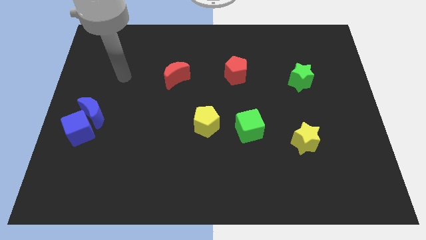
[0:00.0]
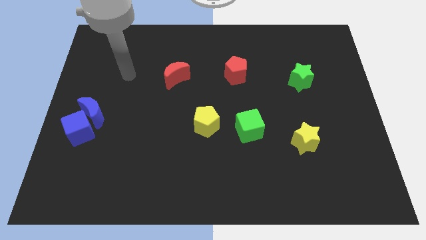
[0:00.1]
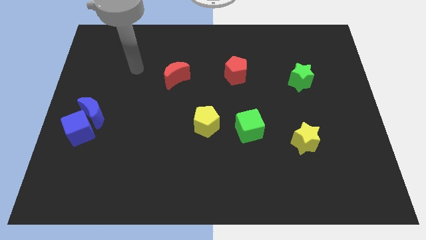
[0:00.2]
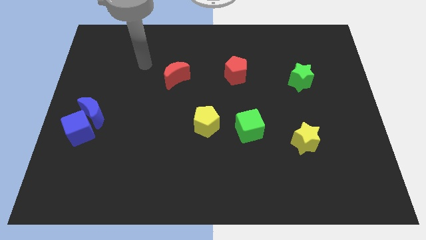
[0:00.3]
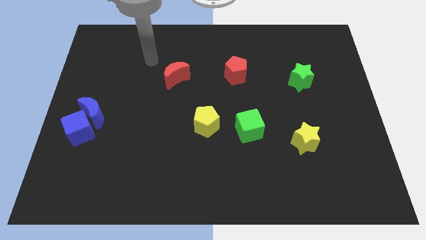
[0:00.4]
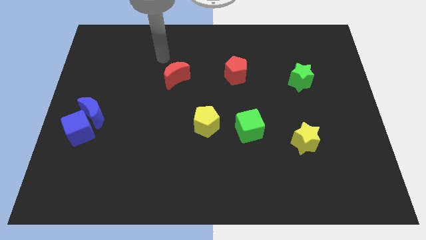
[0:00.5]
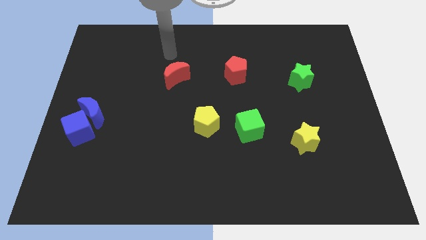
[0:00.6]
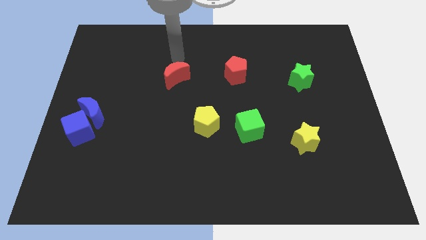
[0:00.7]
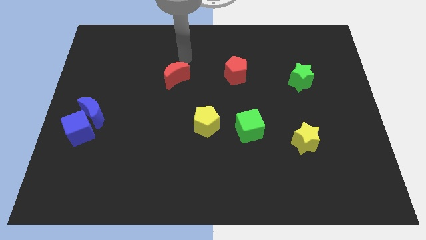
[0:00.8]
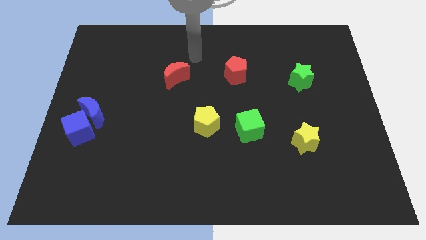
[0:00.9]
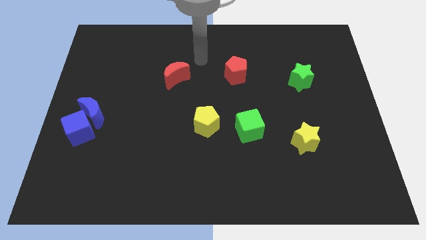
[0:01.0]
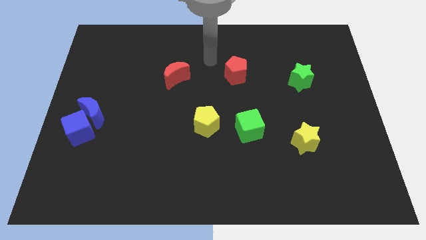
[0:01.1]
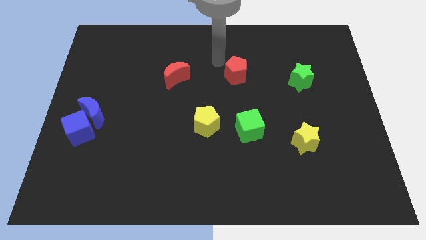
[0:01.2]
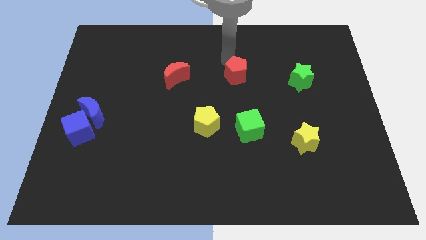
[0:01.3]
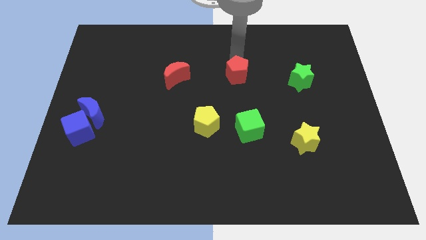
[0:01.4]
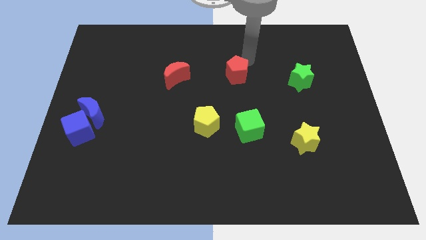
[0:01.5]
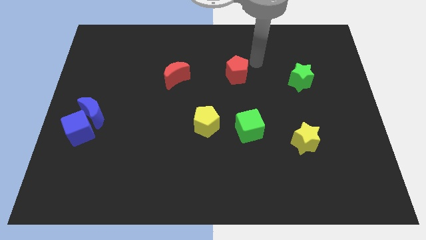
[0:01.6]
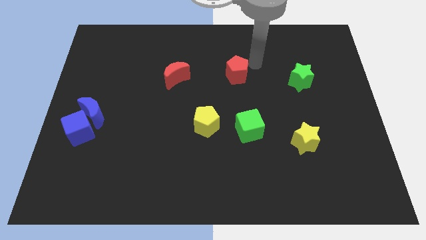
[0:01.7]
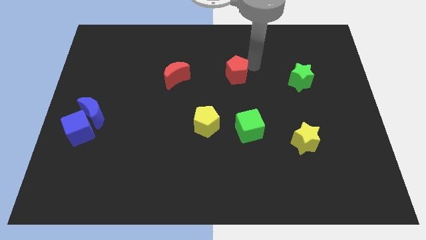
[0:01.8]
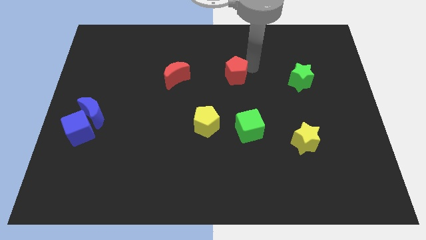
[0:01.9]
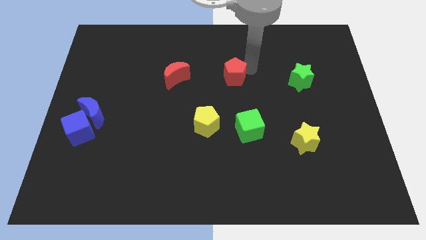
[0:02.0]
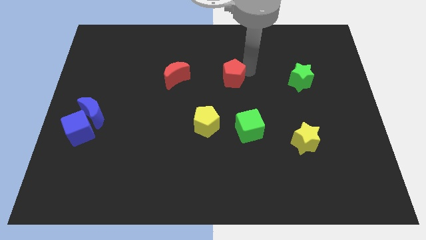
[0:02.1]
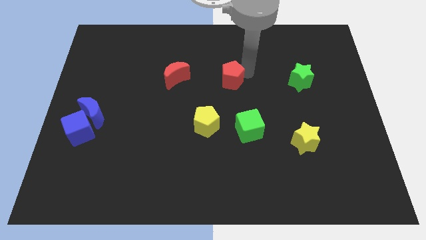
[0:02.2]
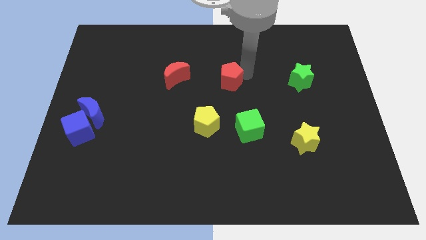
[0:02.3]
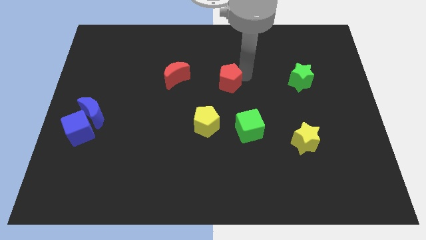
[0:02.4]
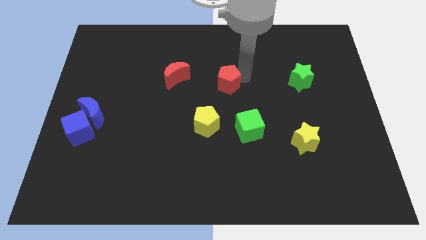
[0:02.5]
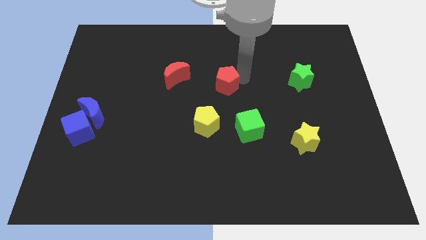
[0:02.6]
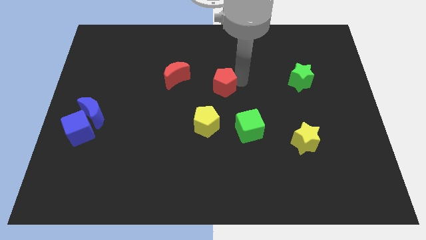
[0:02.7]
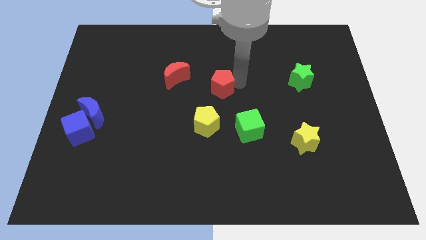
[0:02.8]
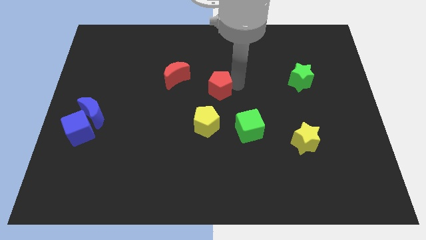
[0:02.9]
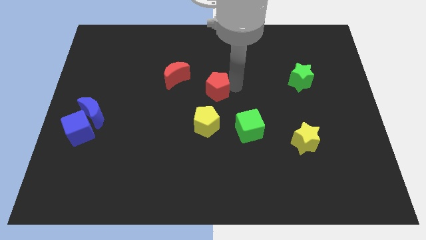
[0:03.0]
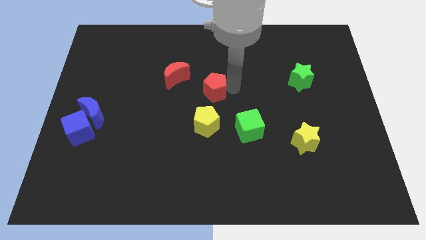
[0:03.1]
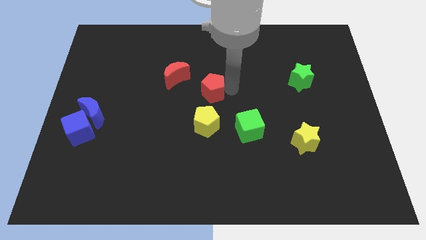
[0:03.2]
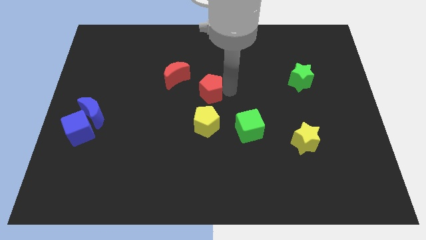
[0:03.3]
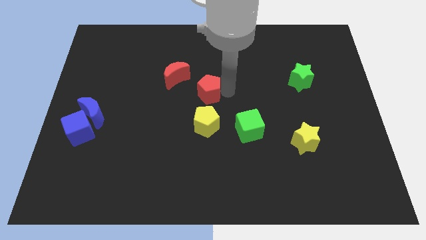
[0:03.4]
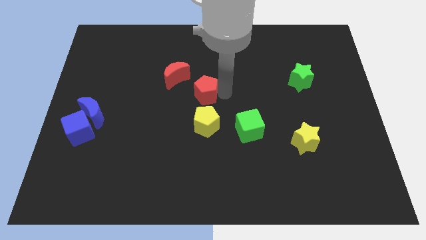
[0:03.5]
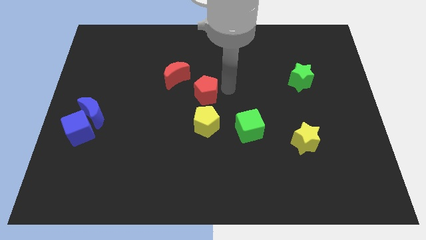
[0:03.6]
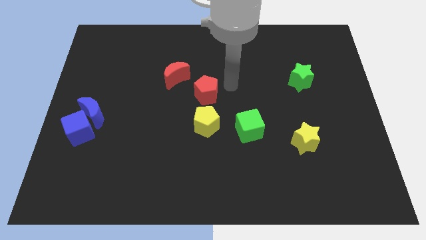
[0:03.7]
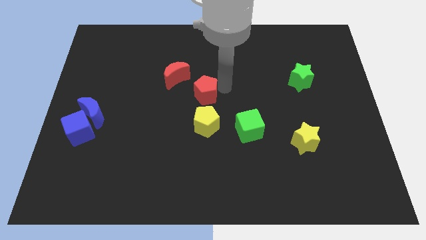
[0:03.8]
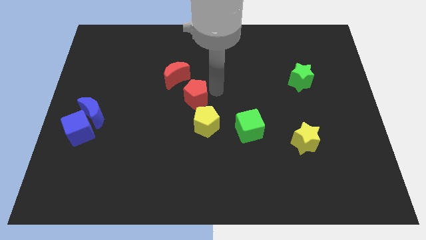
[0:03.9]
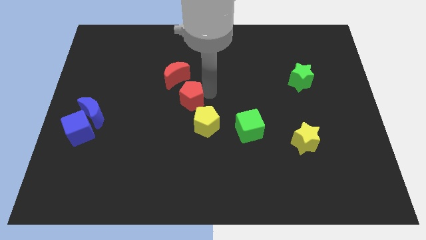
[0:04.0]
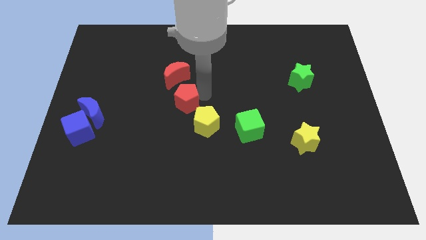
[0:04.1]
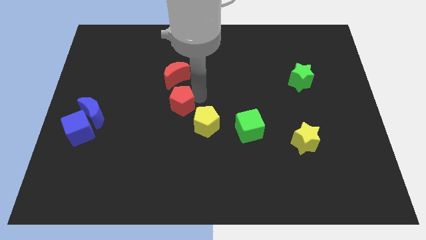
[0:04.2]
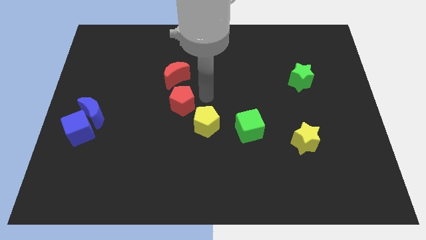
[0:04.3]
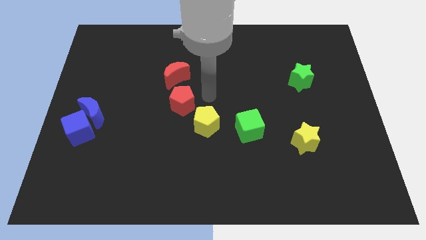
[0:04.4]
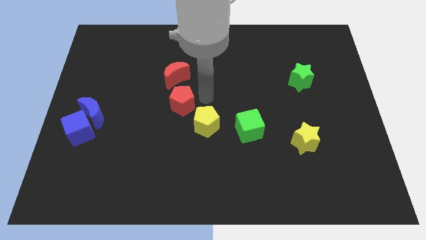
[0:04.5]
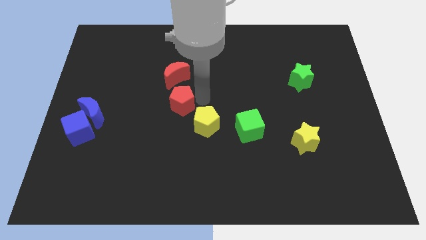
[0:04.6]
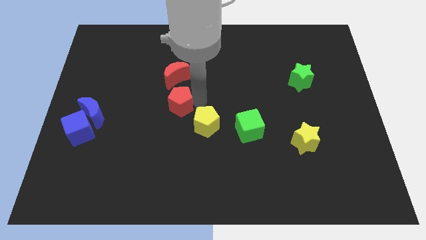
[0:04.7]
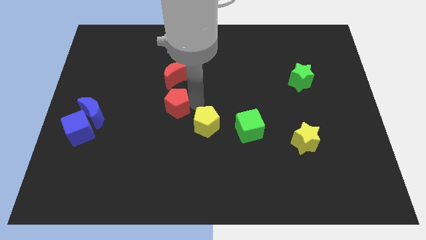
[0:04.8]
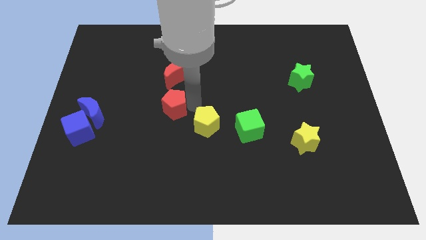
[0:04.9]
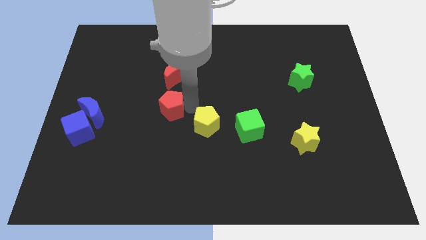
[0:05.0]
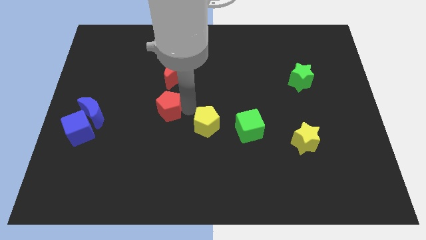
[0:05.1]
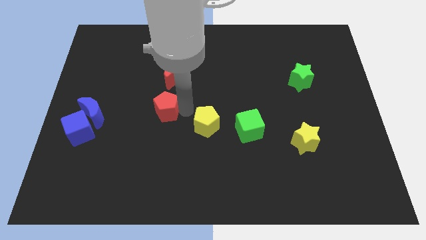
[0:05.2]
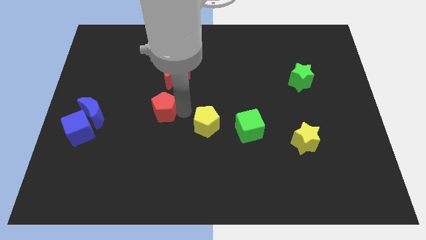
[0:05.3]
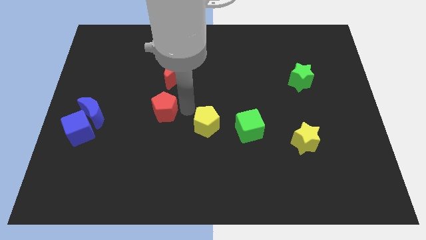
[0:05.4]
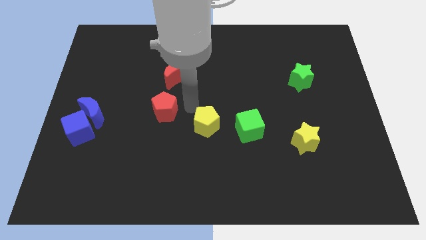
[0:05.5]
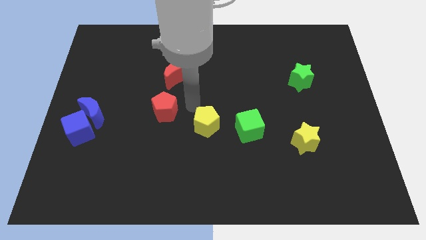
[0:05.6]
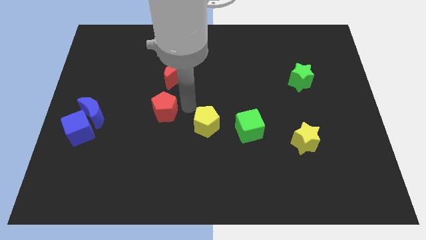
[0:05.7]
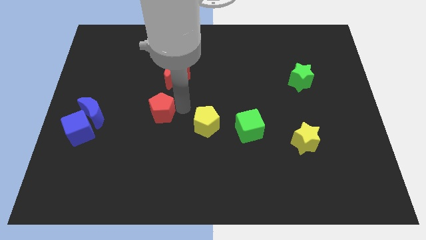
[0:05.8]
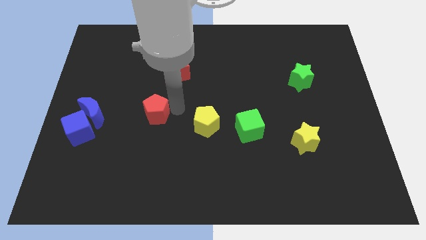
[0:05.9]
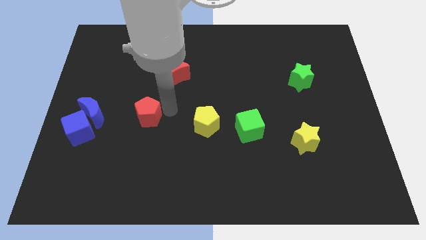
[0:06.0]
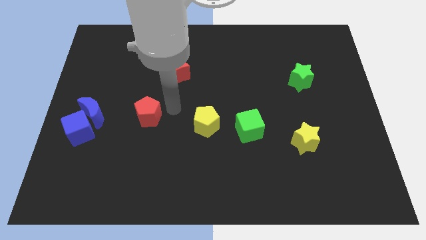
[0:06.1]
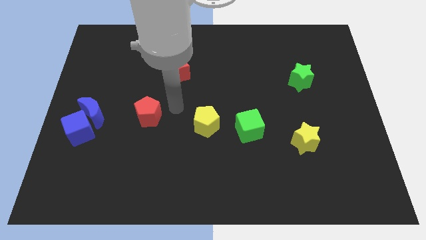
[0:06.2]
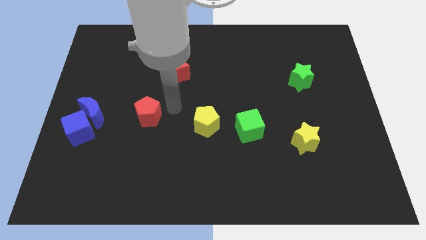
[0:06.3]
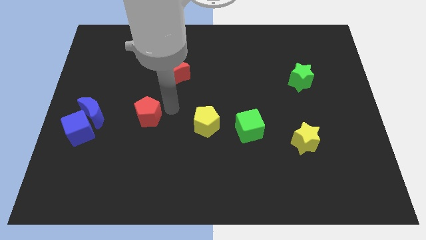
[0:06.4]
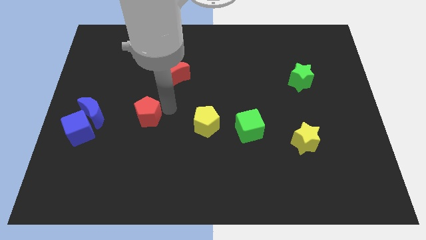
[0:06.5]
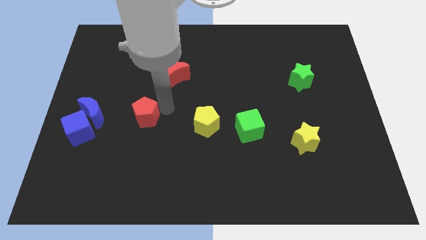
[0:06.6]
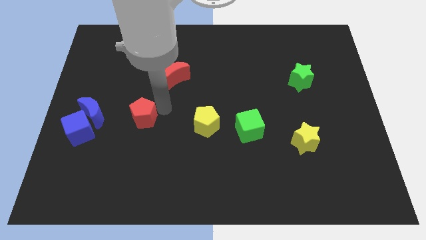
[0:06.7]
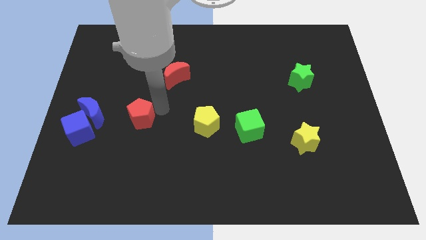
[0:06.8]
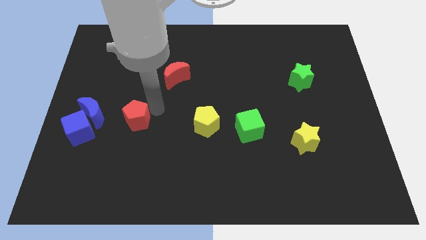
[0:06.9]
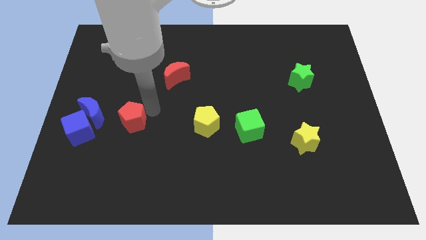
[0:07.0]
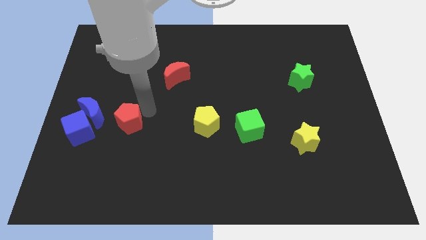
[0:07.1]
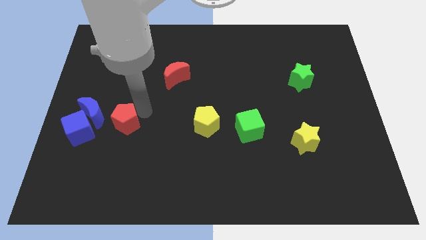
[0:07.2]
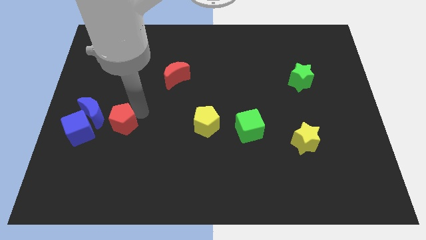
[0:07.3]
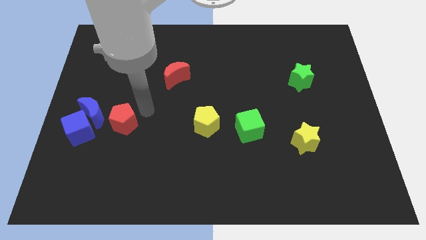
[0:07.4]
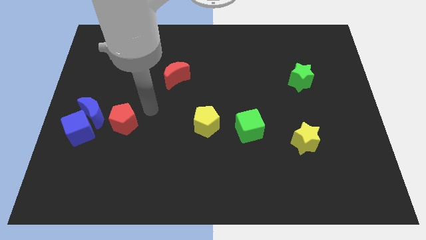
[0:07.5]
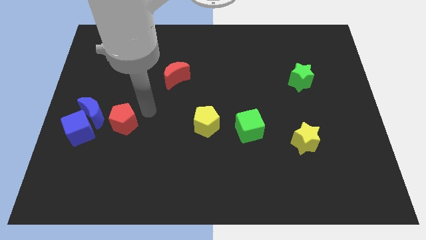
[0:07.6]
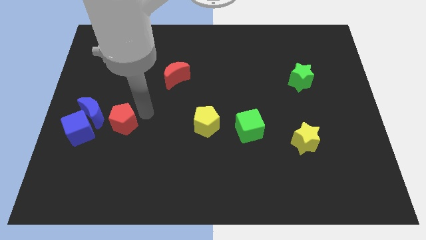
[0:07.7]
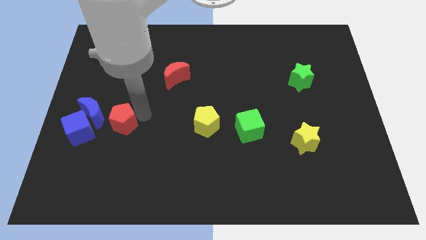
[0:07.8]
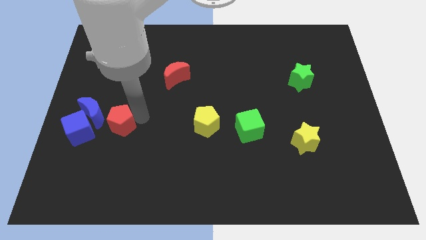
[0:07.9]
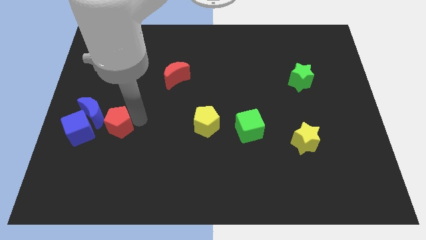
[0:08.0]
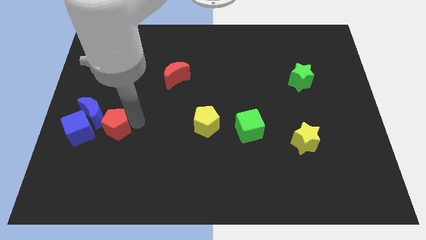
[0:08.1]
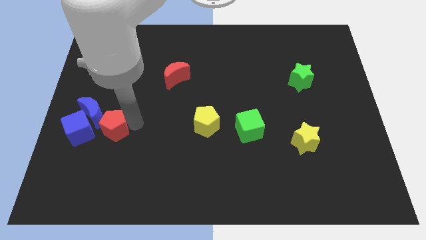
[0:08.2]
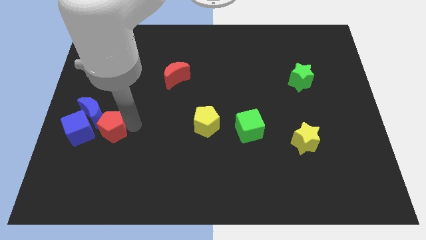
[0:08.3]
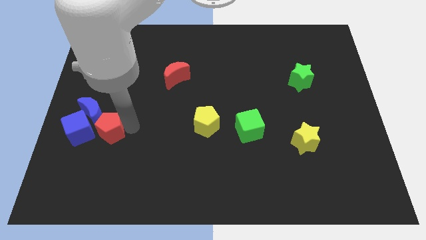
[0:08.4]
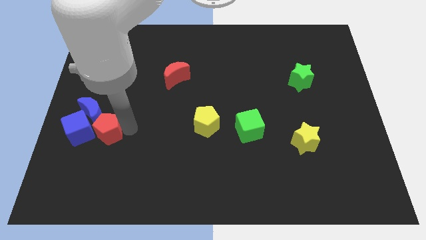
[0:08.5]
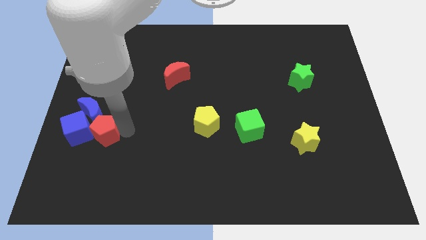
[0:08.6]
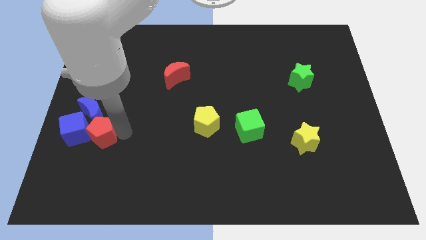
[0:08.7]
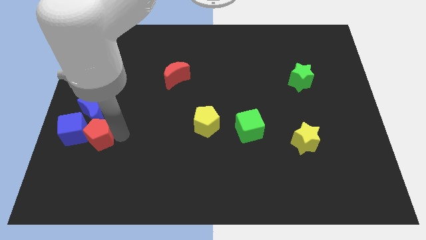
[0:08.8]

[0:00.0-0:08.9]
move the red pentagon to the blue cube
